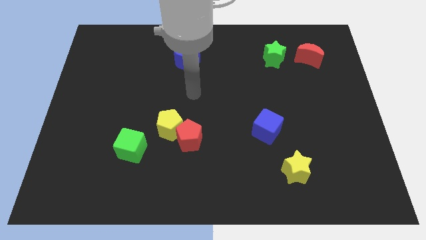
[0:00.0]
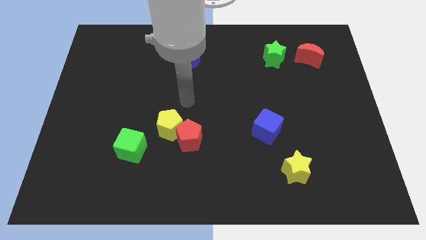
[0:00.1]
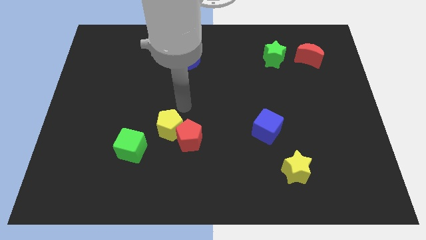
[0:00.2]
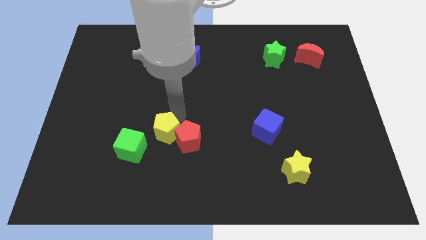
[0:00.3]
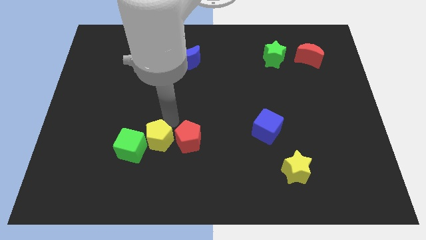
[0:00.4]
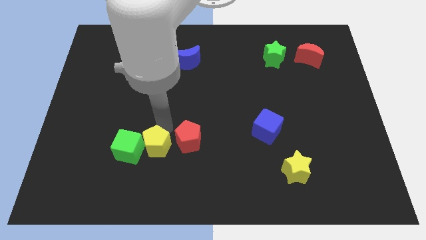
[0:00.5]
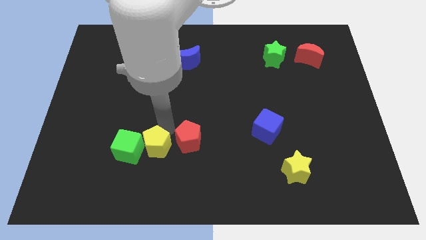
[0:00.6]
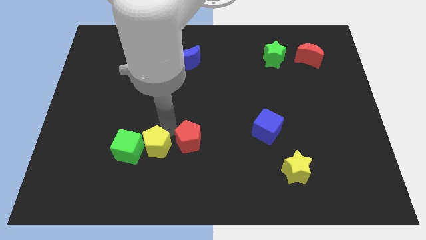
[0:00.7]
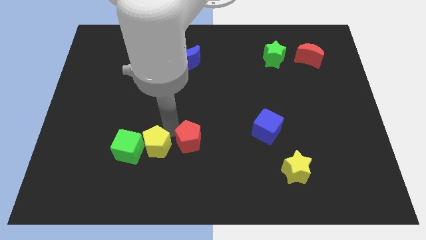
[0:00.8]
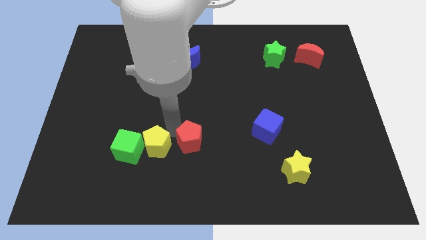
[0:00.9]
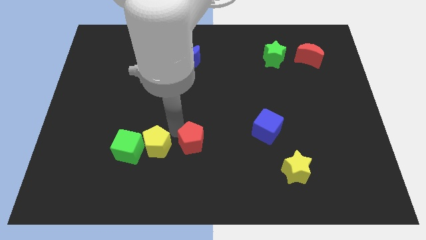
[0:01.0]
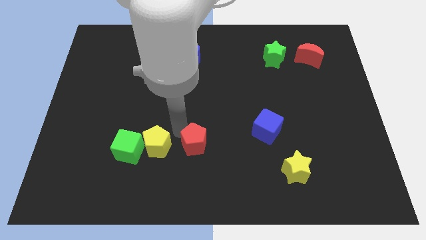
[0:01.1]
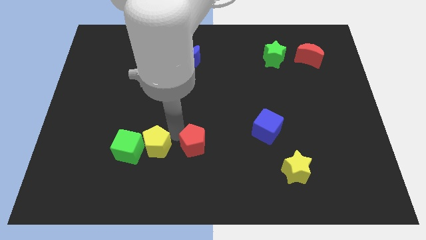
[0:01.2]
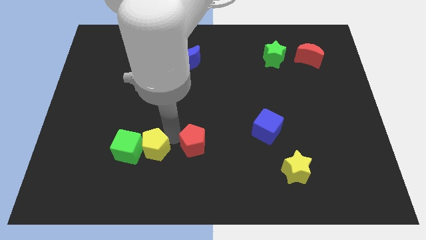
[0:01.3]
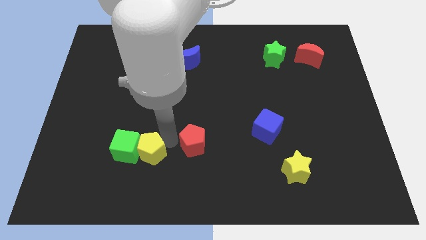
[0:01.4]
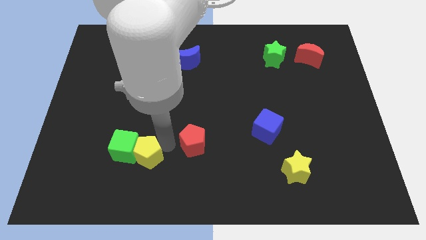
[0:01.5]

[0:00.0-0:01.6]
move the red pentagon away from the yellow pentagon

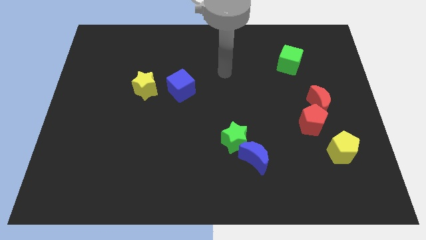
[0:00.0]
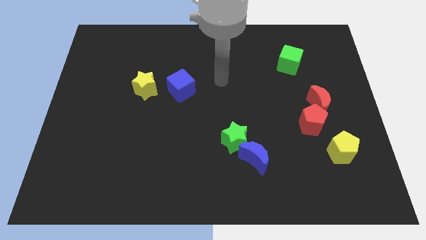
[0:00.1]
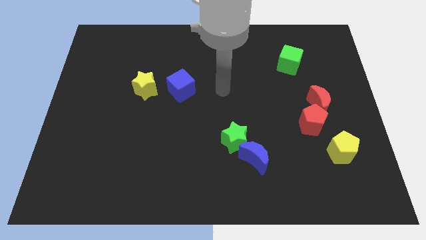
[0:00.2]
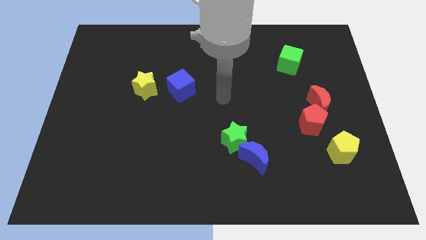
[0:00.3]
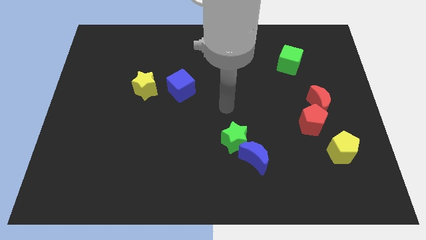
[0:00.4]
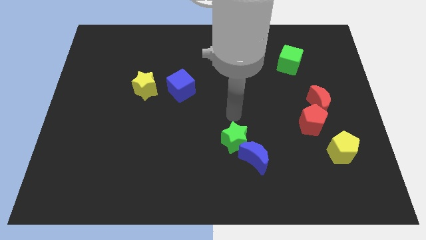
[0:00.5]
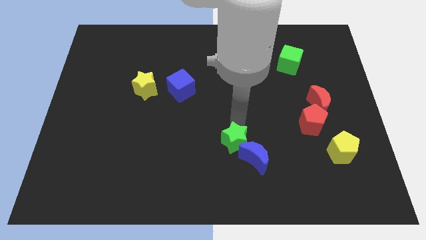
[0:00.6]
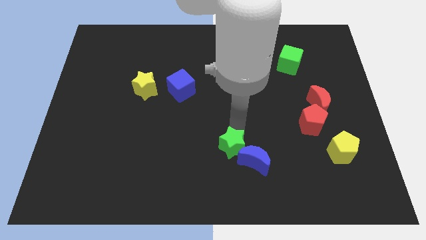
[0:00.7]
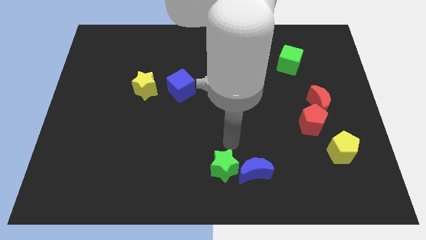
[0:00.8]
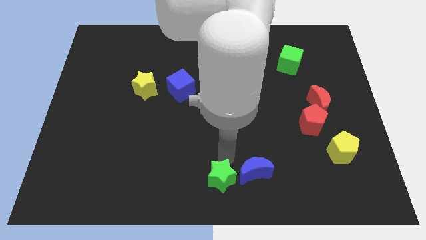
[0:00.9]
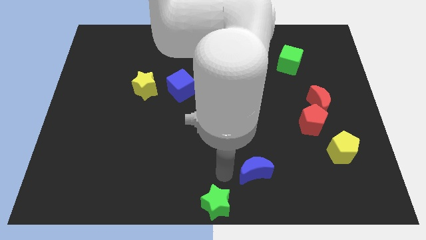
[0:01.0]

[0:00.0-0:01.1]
separate the blue moon from the green star

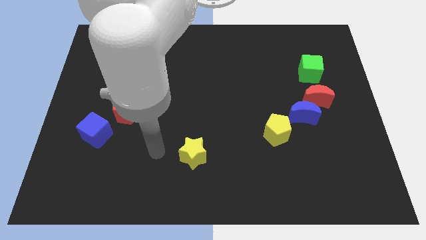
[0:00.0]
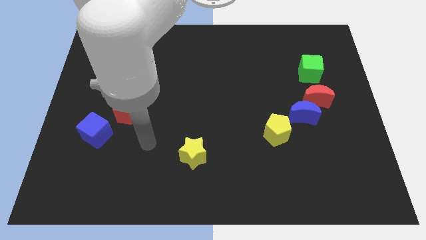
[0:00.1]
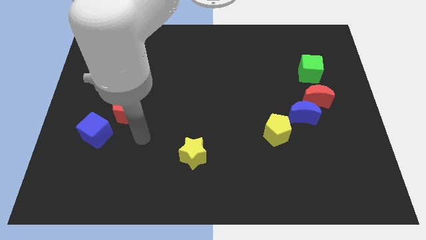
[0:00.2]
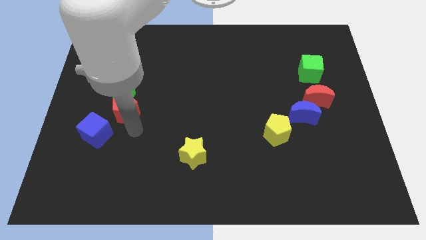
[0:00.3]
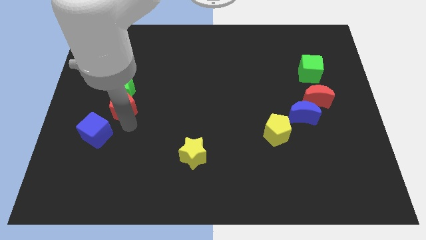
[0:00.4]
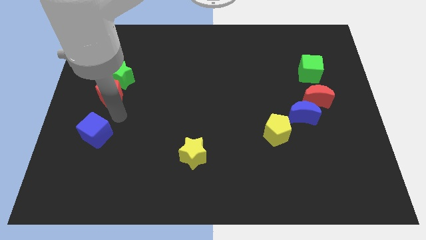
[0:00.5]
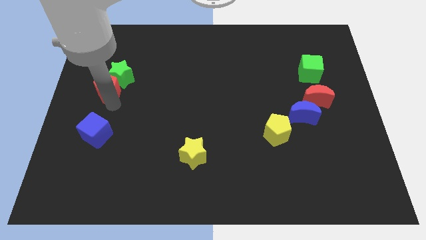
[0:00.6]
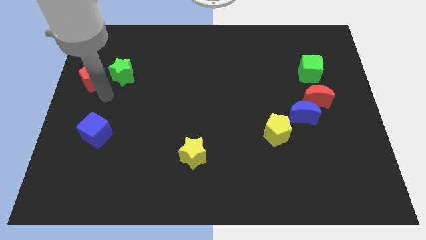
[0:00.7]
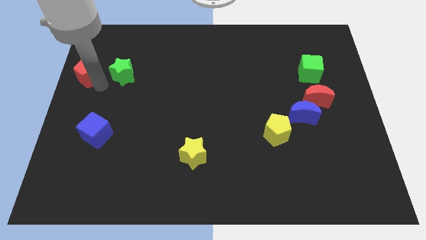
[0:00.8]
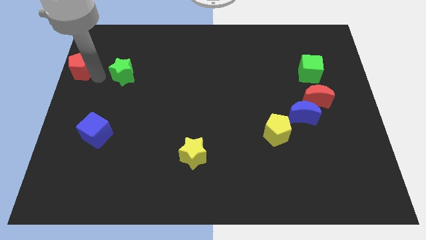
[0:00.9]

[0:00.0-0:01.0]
pull the green star apart from the red pentagon

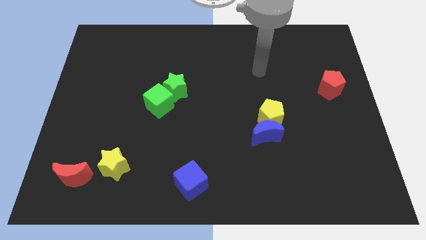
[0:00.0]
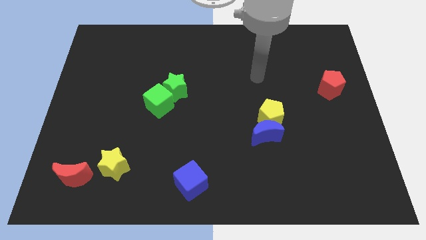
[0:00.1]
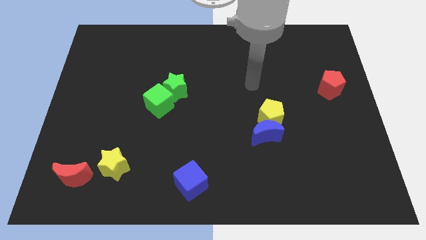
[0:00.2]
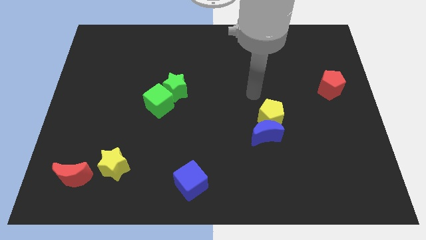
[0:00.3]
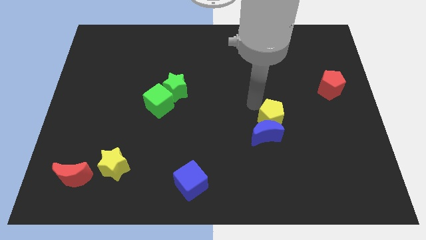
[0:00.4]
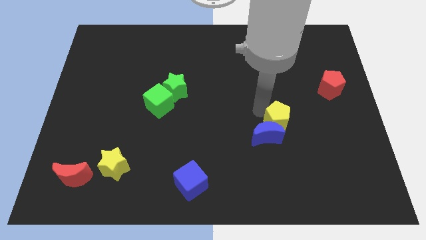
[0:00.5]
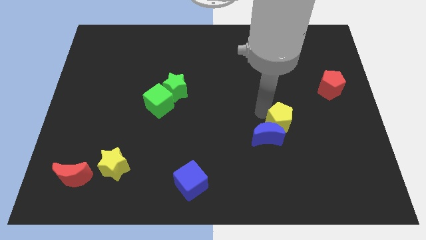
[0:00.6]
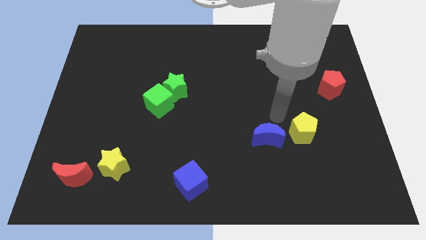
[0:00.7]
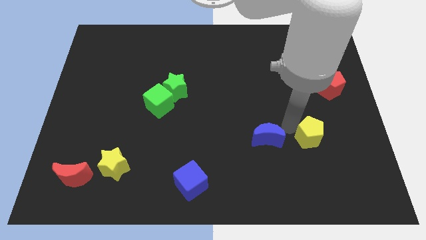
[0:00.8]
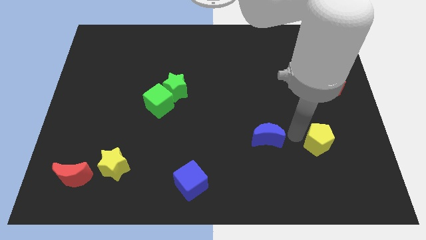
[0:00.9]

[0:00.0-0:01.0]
move the blue moon away from the yellow pentagon

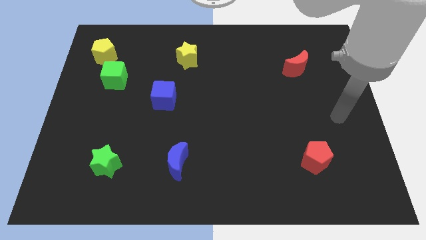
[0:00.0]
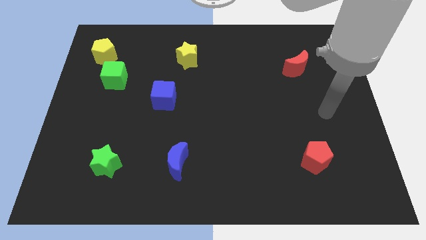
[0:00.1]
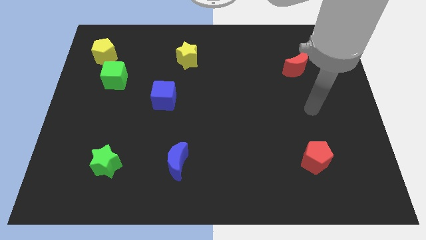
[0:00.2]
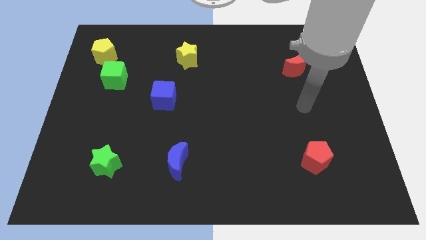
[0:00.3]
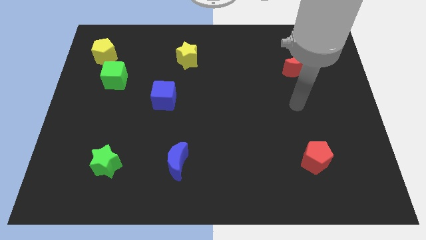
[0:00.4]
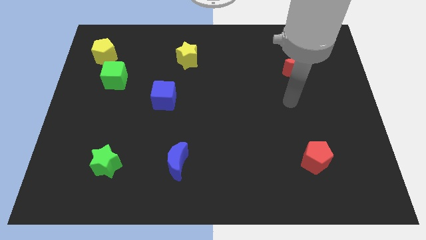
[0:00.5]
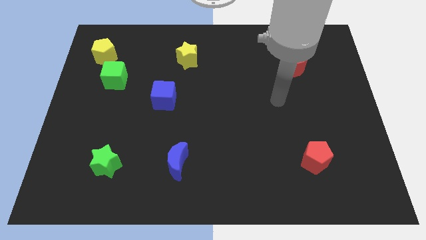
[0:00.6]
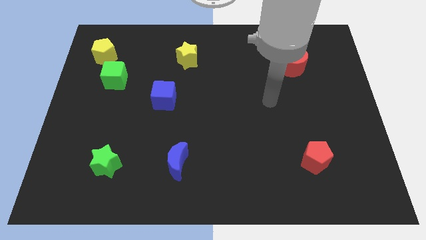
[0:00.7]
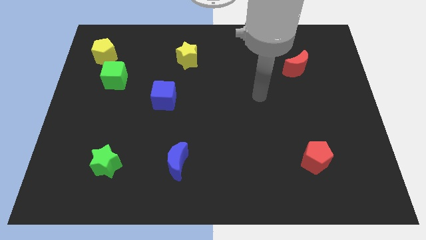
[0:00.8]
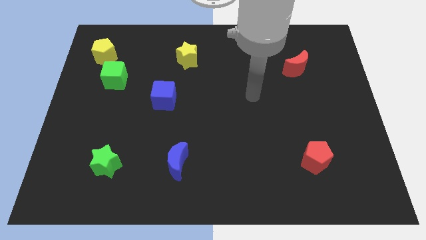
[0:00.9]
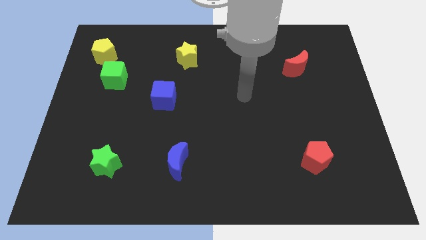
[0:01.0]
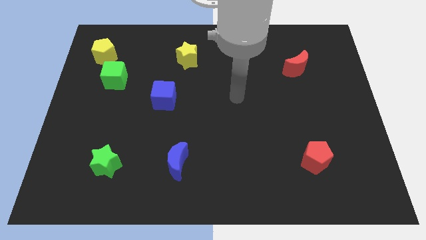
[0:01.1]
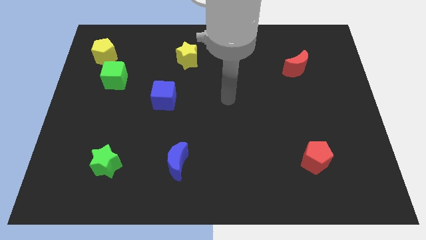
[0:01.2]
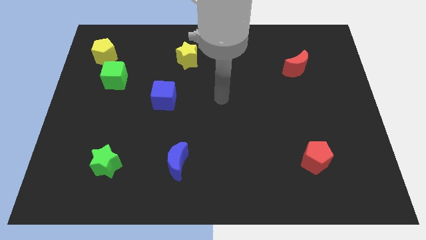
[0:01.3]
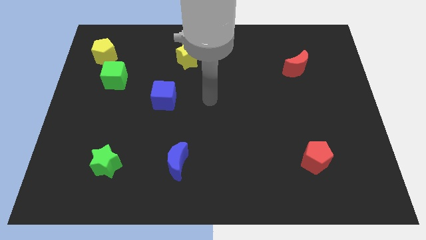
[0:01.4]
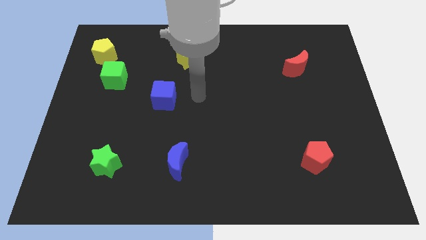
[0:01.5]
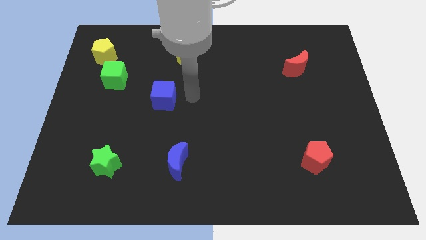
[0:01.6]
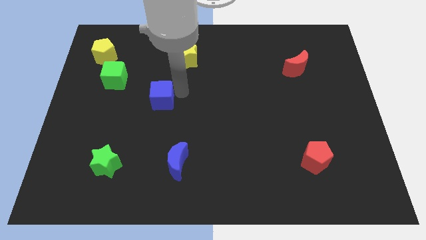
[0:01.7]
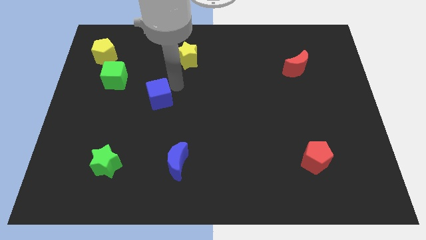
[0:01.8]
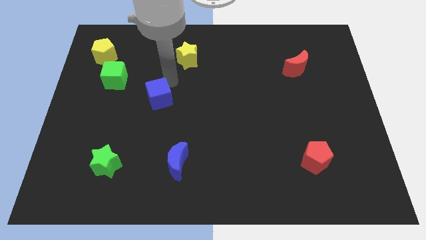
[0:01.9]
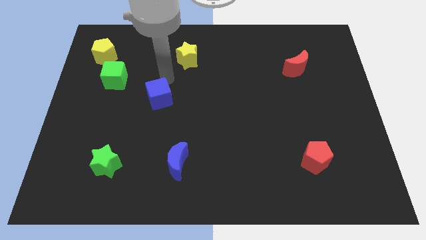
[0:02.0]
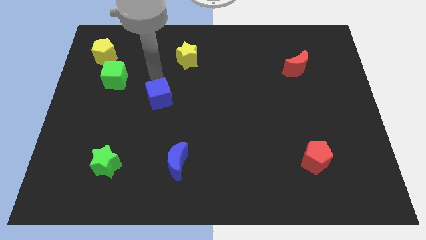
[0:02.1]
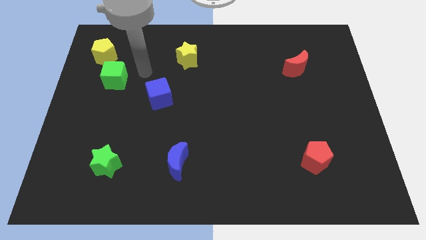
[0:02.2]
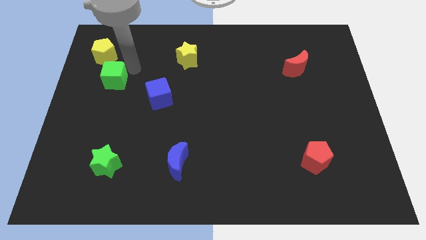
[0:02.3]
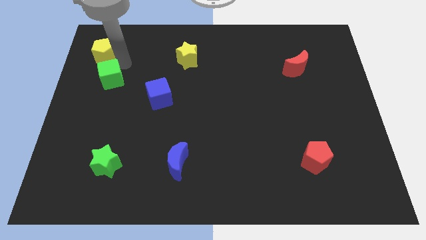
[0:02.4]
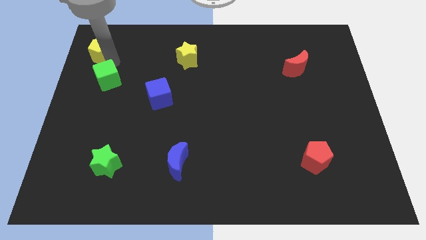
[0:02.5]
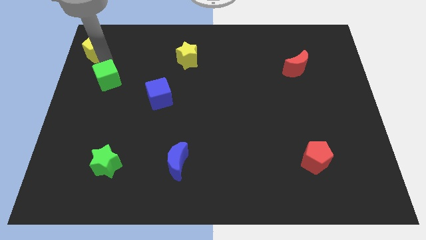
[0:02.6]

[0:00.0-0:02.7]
move the green cube away from the yellow pentagon

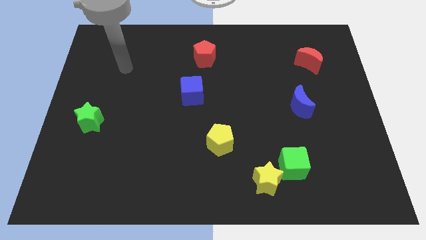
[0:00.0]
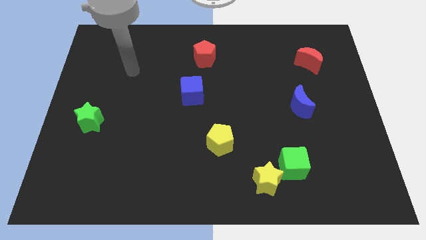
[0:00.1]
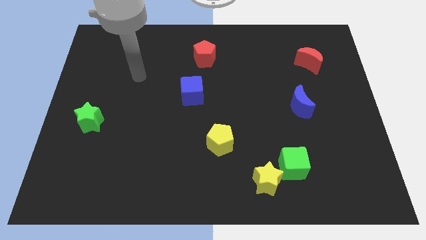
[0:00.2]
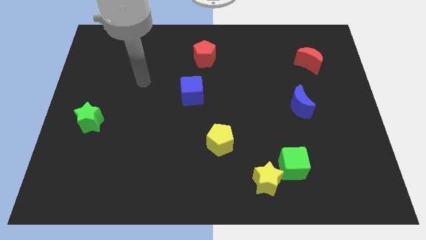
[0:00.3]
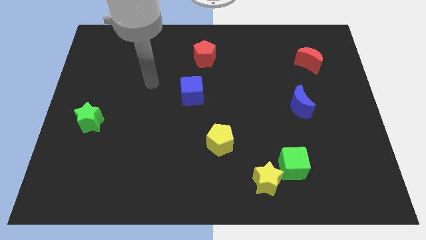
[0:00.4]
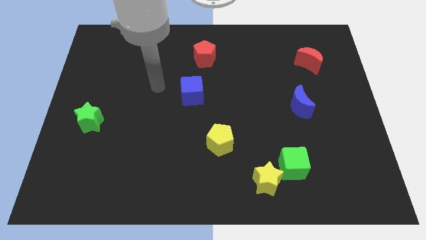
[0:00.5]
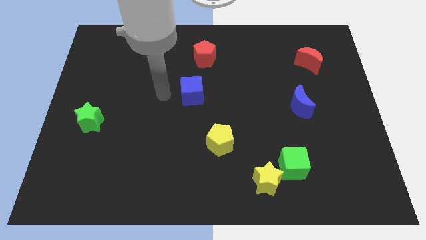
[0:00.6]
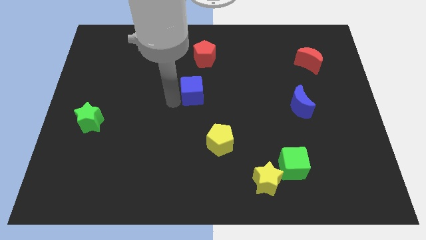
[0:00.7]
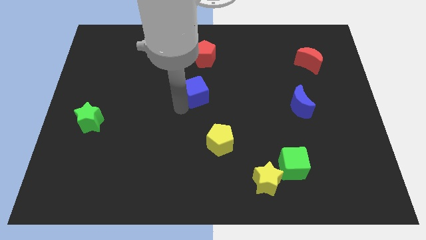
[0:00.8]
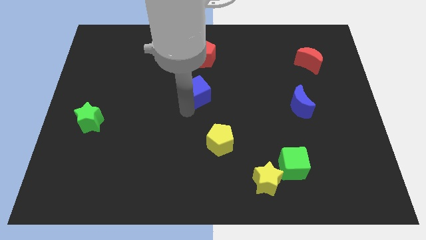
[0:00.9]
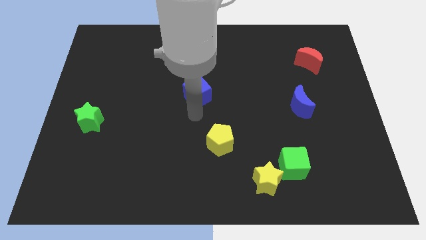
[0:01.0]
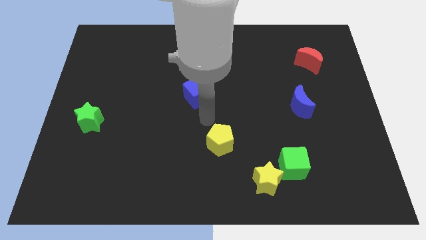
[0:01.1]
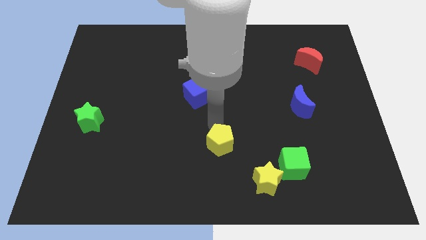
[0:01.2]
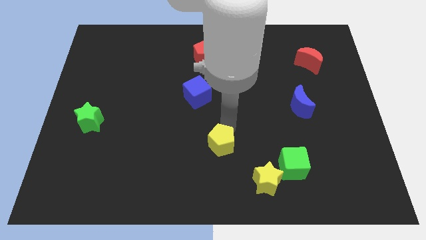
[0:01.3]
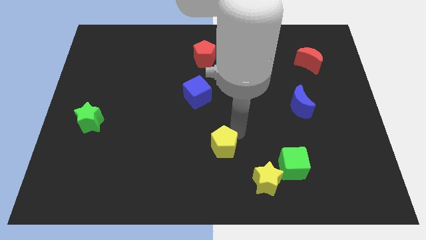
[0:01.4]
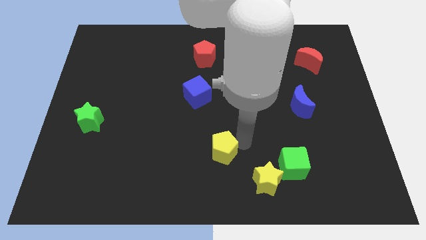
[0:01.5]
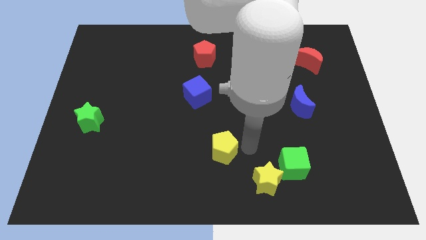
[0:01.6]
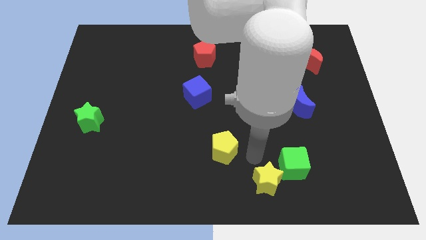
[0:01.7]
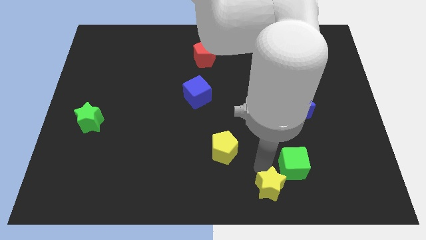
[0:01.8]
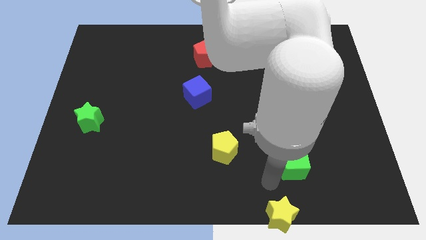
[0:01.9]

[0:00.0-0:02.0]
separate the green cube from the yellow star

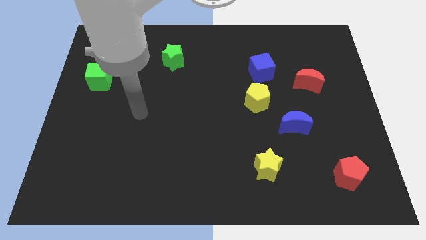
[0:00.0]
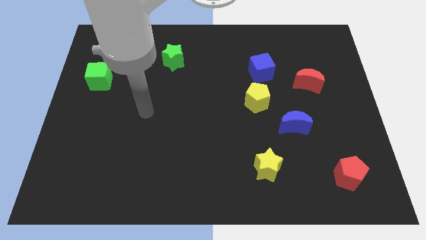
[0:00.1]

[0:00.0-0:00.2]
pull the blue cube apart from the yellow pentagon
